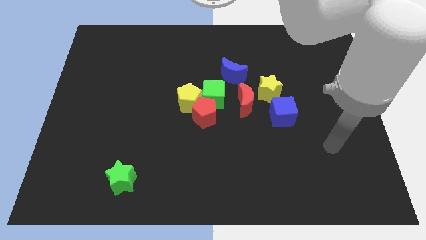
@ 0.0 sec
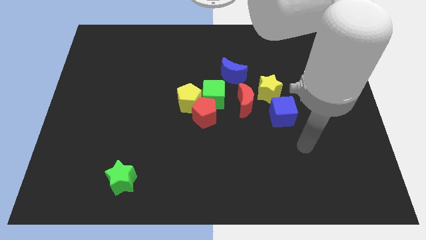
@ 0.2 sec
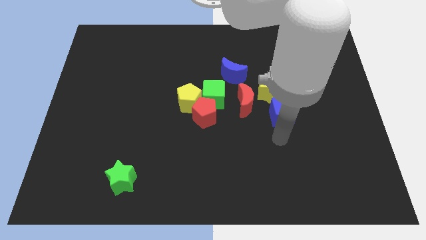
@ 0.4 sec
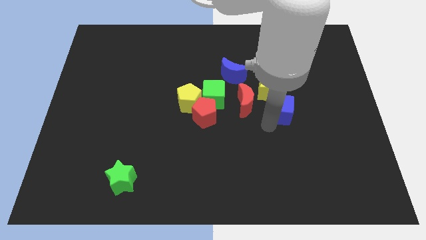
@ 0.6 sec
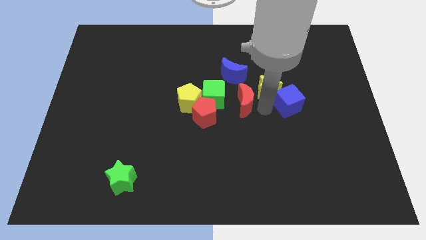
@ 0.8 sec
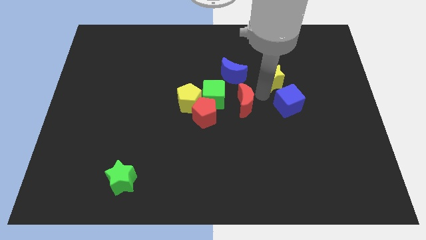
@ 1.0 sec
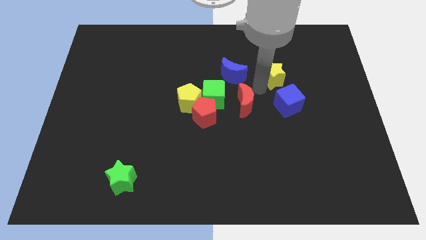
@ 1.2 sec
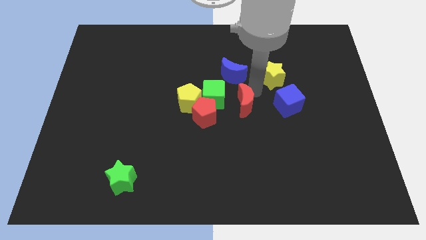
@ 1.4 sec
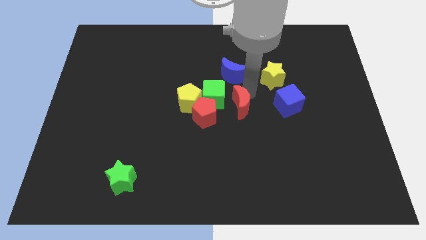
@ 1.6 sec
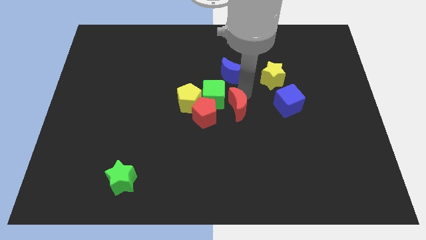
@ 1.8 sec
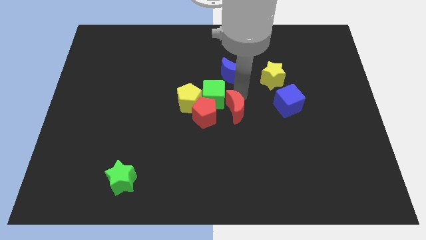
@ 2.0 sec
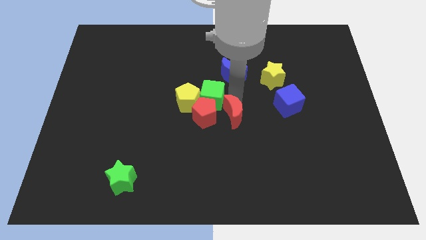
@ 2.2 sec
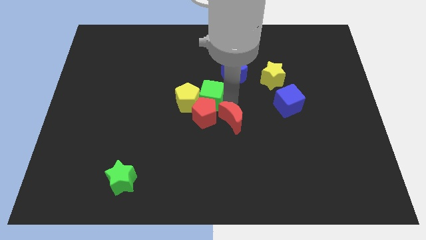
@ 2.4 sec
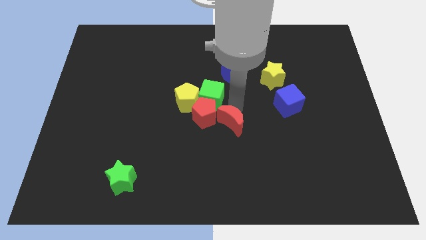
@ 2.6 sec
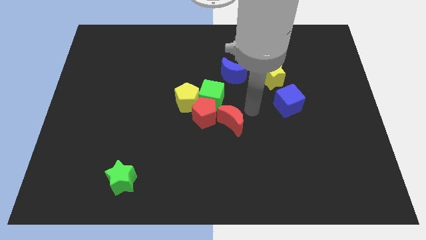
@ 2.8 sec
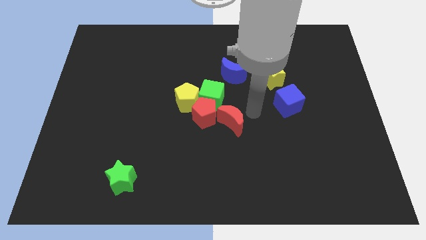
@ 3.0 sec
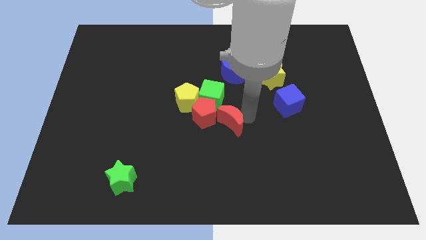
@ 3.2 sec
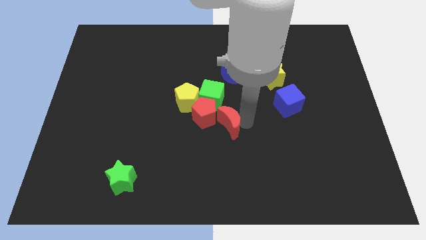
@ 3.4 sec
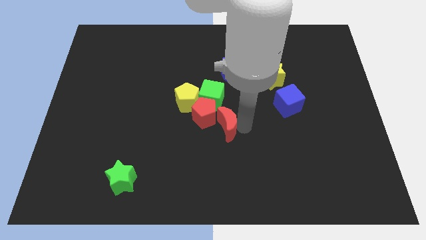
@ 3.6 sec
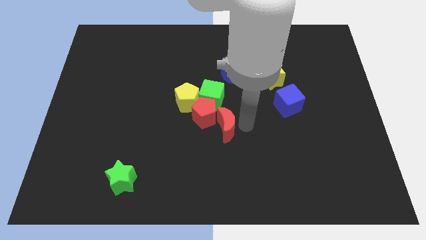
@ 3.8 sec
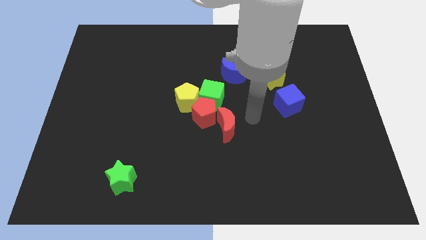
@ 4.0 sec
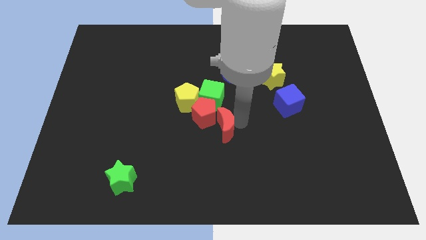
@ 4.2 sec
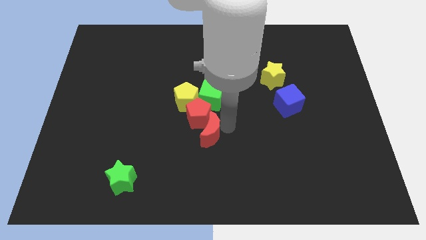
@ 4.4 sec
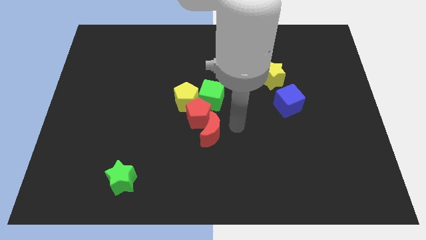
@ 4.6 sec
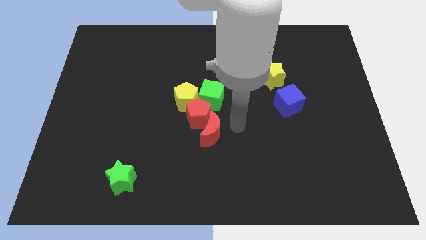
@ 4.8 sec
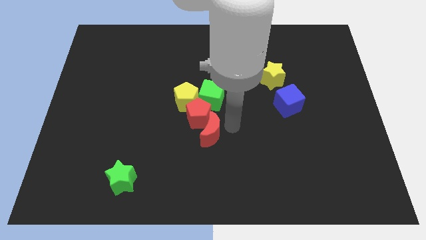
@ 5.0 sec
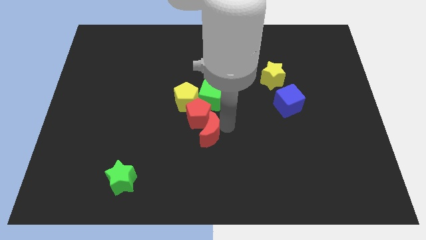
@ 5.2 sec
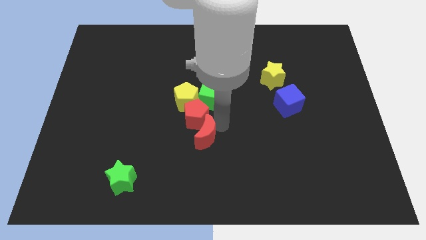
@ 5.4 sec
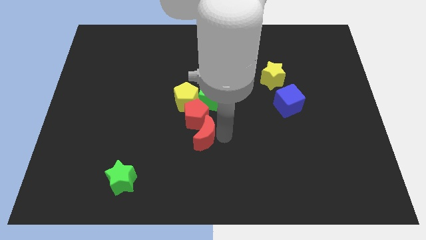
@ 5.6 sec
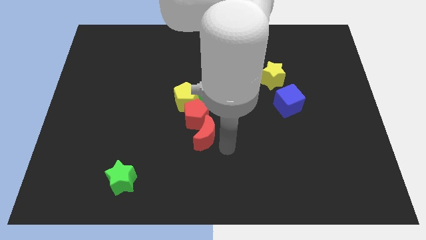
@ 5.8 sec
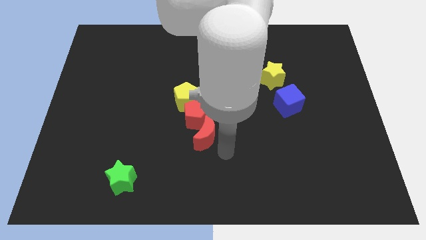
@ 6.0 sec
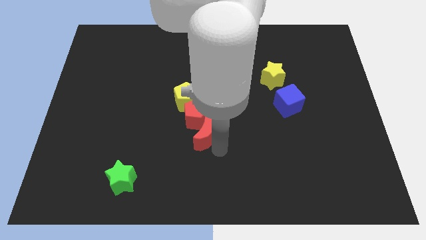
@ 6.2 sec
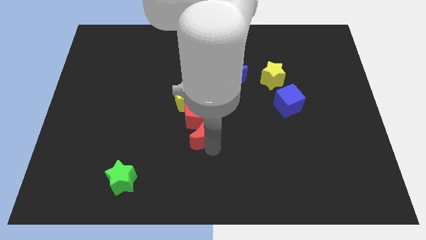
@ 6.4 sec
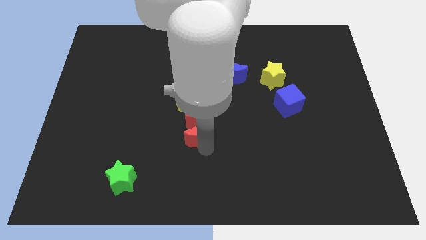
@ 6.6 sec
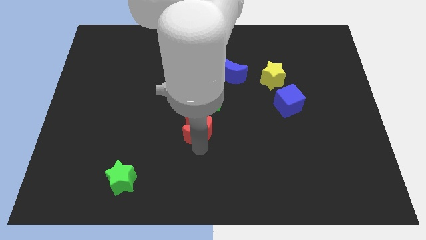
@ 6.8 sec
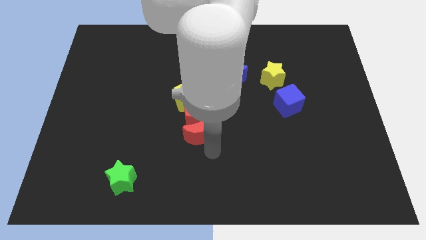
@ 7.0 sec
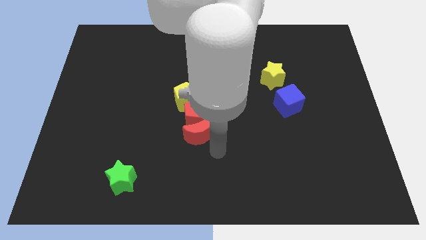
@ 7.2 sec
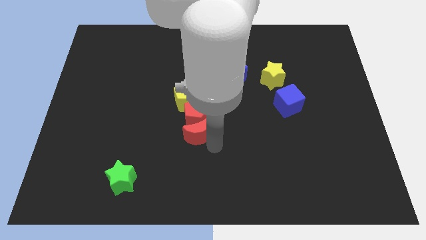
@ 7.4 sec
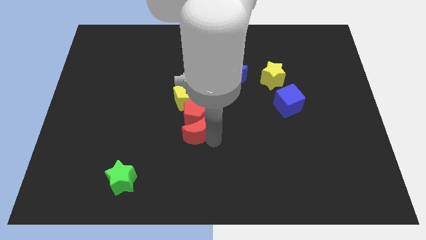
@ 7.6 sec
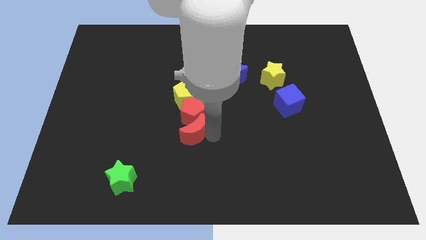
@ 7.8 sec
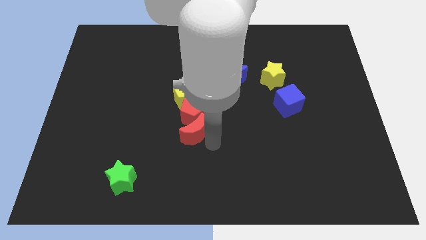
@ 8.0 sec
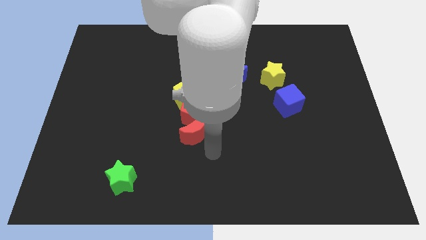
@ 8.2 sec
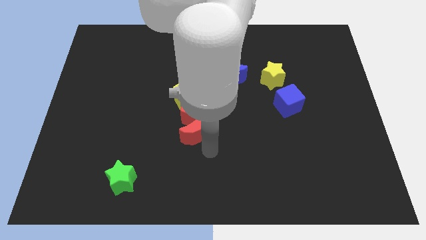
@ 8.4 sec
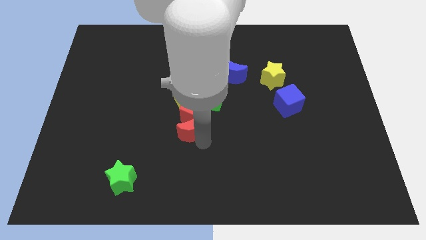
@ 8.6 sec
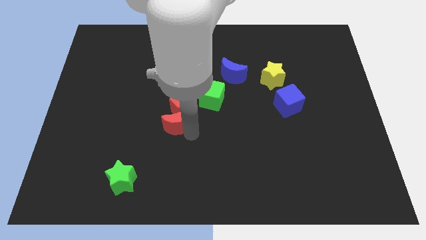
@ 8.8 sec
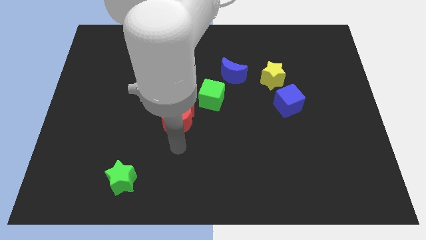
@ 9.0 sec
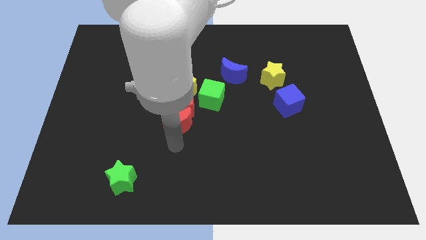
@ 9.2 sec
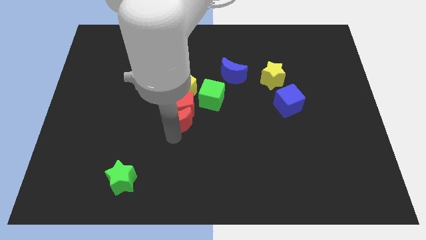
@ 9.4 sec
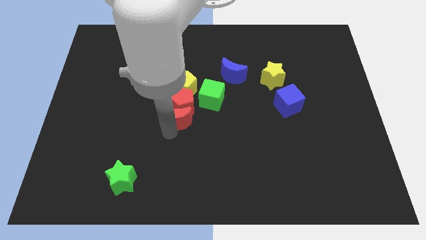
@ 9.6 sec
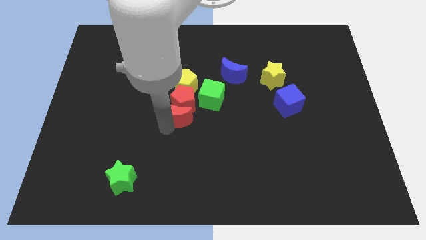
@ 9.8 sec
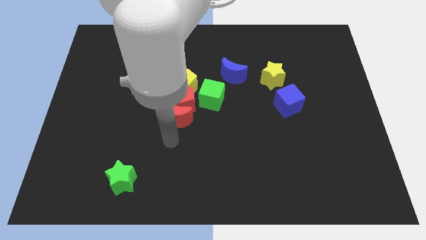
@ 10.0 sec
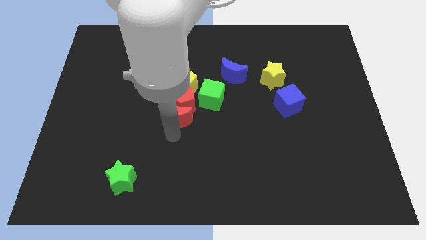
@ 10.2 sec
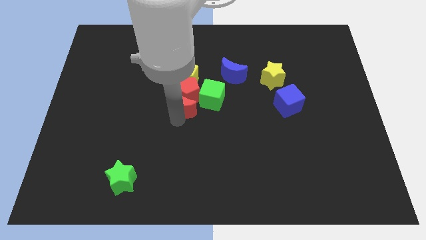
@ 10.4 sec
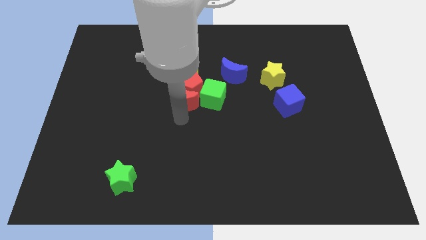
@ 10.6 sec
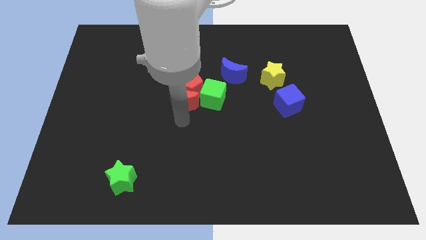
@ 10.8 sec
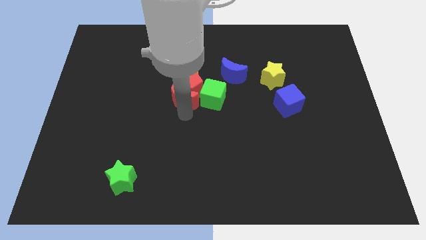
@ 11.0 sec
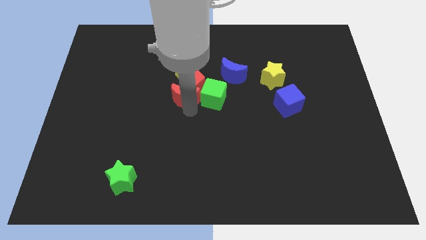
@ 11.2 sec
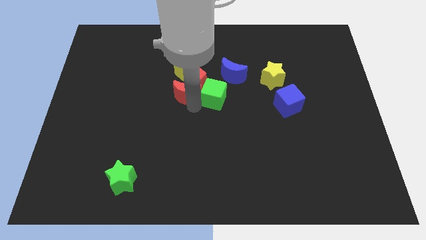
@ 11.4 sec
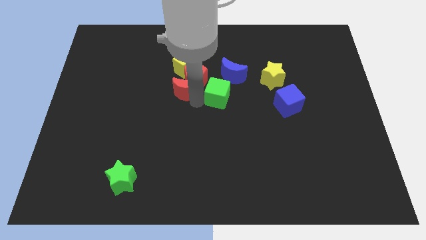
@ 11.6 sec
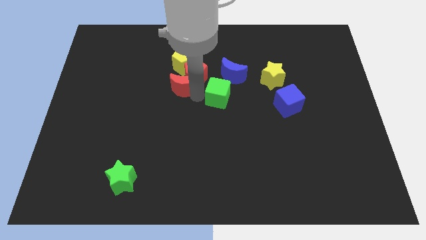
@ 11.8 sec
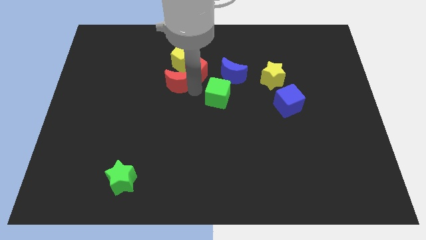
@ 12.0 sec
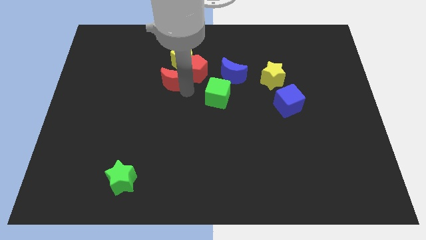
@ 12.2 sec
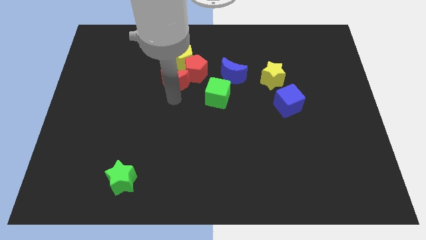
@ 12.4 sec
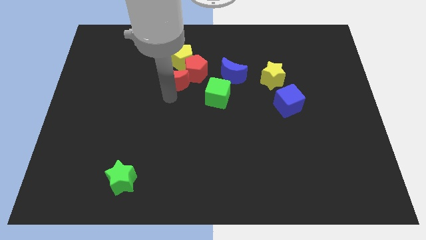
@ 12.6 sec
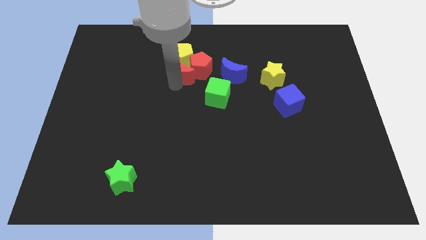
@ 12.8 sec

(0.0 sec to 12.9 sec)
push the red moon next to the yellow pentagon
